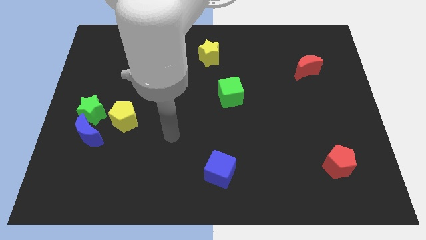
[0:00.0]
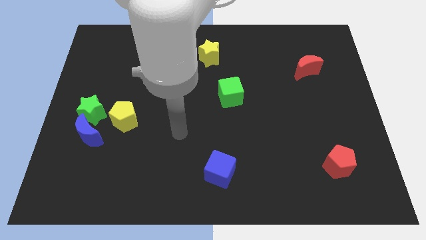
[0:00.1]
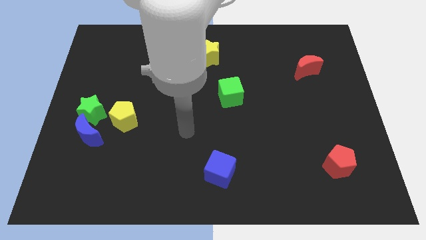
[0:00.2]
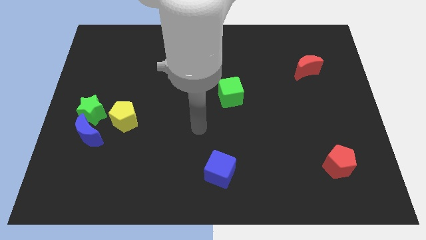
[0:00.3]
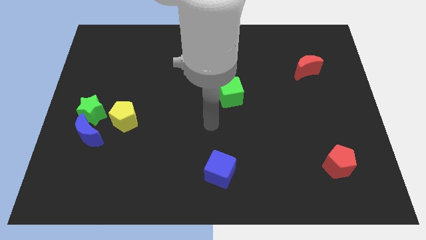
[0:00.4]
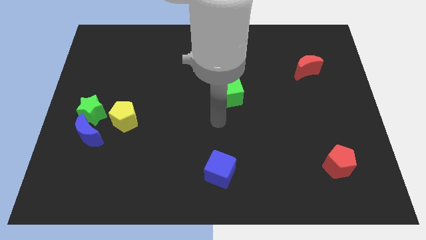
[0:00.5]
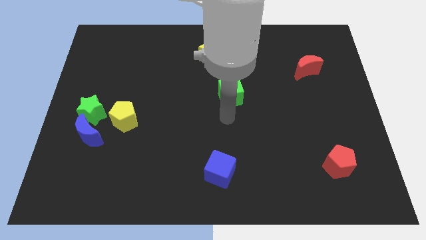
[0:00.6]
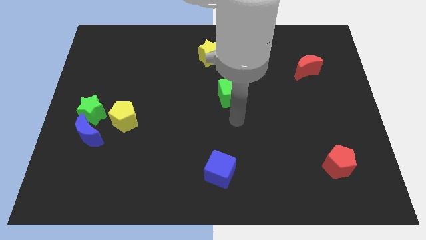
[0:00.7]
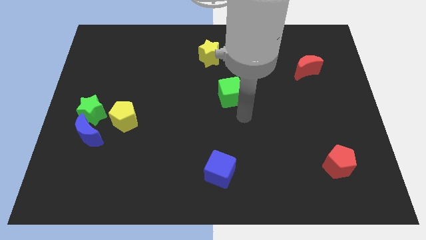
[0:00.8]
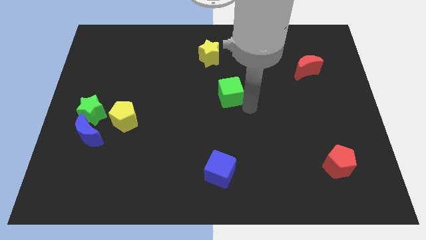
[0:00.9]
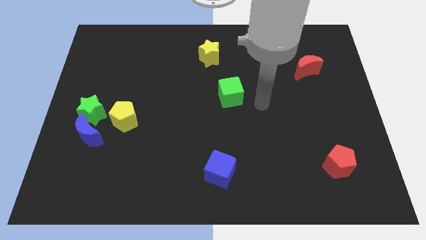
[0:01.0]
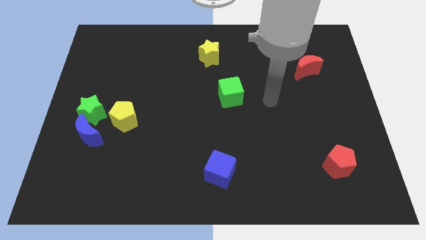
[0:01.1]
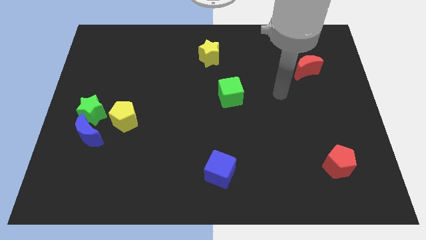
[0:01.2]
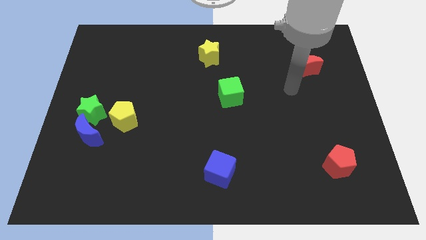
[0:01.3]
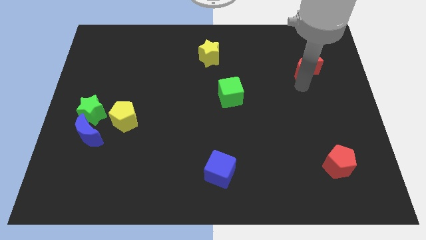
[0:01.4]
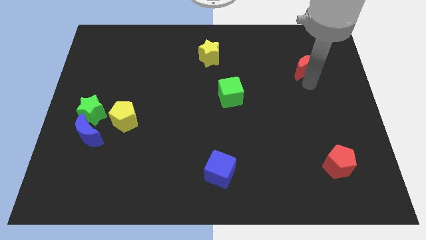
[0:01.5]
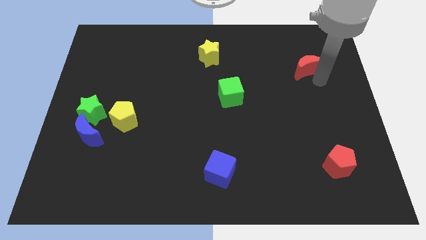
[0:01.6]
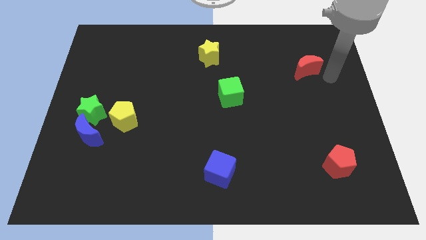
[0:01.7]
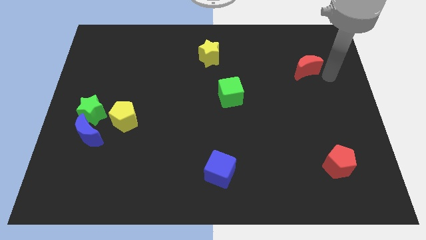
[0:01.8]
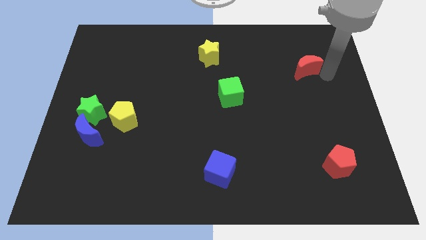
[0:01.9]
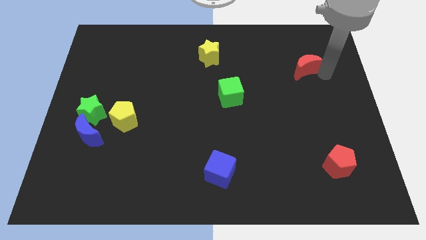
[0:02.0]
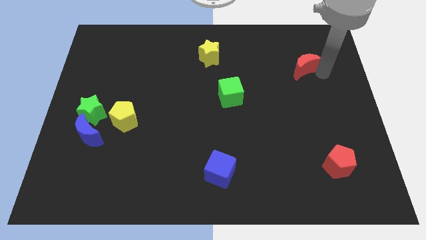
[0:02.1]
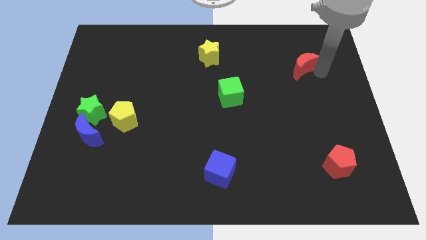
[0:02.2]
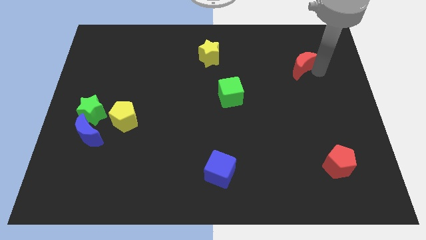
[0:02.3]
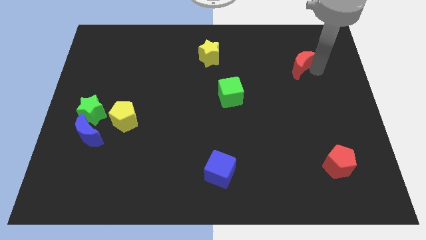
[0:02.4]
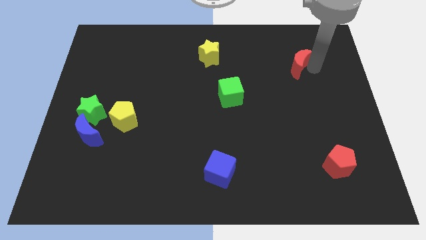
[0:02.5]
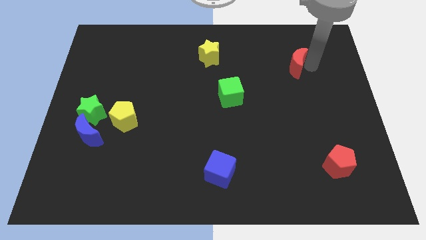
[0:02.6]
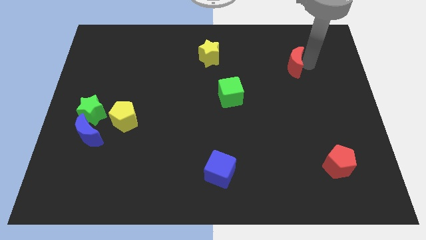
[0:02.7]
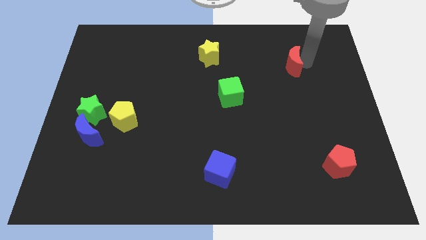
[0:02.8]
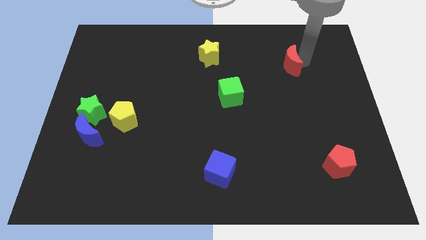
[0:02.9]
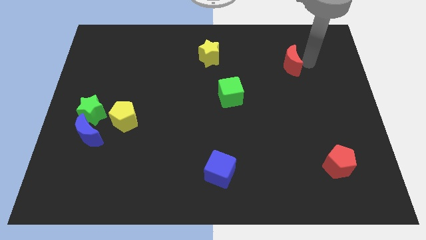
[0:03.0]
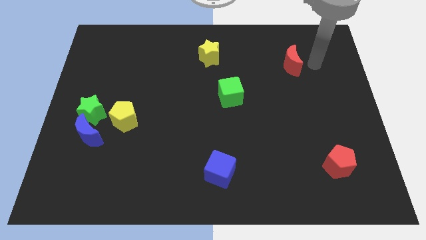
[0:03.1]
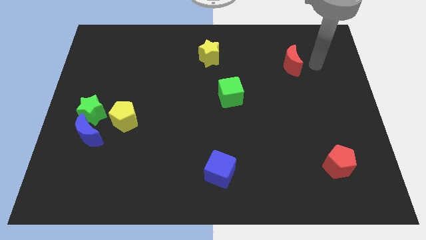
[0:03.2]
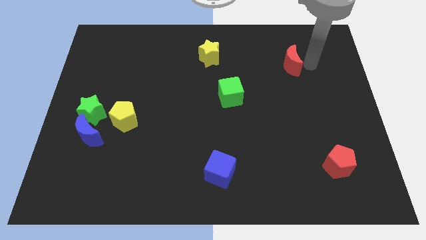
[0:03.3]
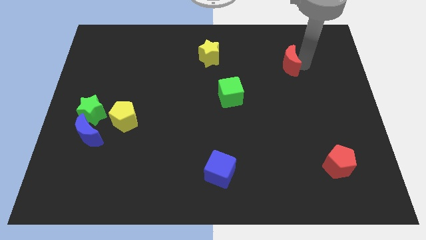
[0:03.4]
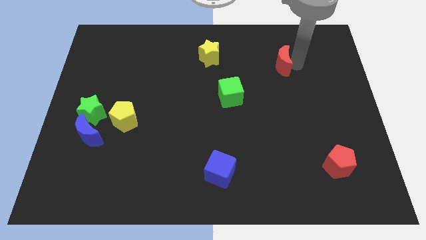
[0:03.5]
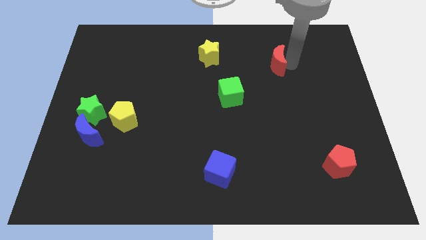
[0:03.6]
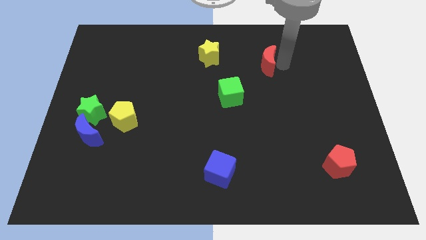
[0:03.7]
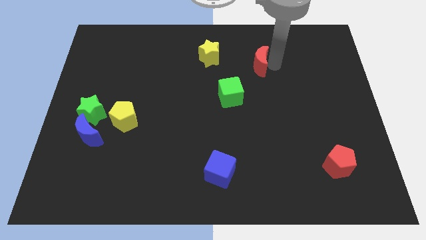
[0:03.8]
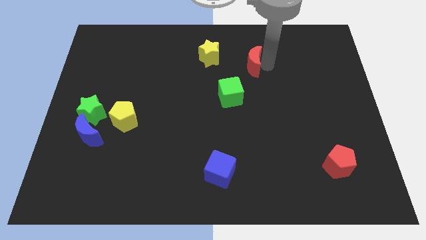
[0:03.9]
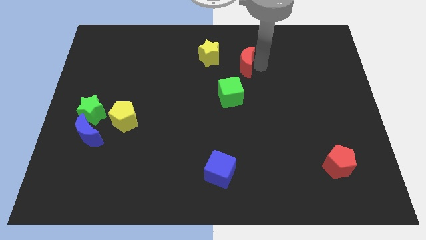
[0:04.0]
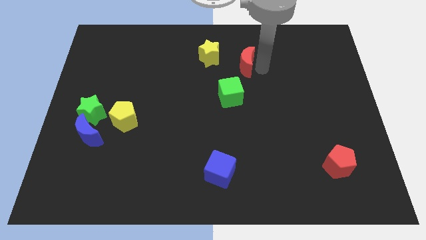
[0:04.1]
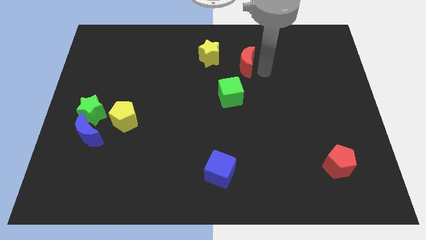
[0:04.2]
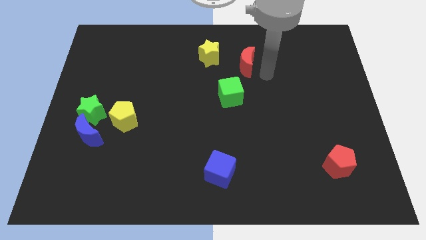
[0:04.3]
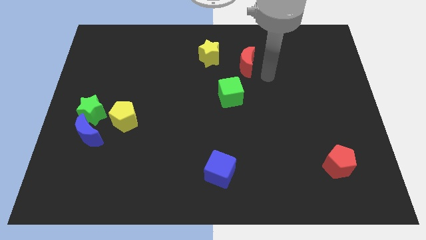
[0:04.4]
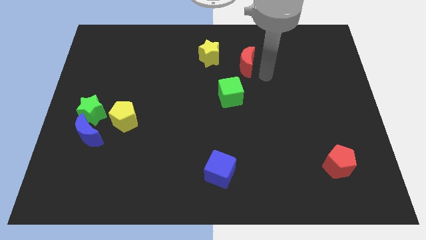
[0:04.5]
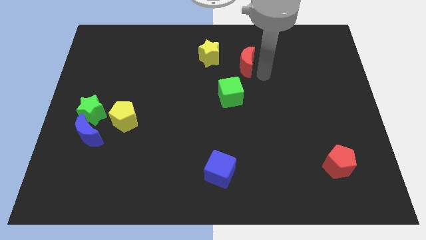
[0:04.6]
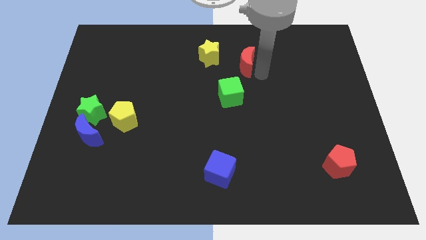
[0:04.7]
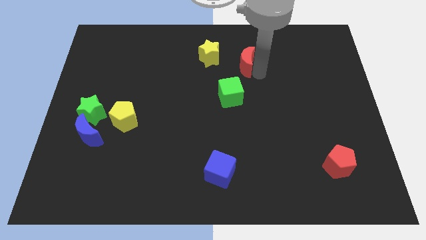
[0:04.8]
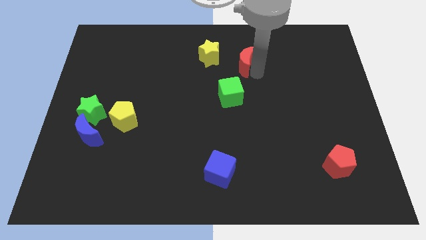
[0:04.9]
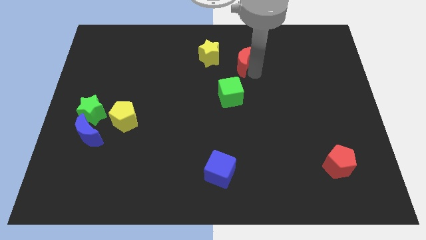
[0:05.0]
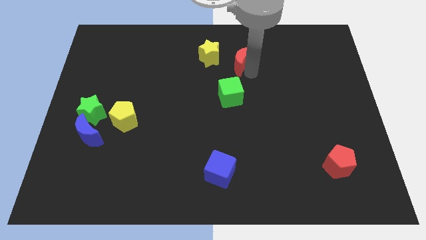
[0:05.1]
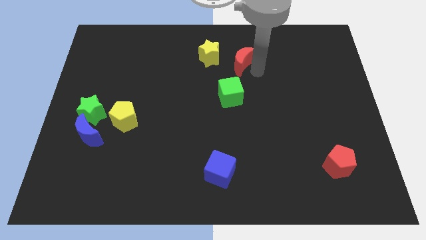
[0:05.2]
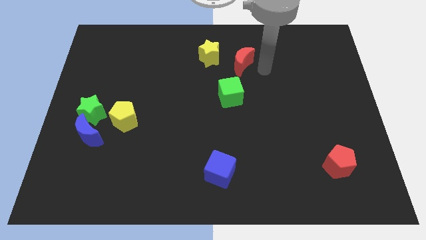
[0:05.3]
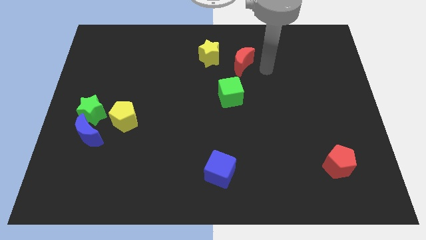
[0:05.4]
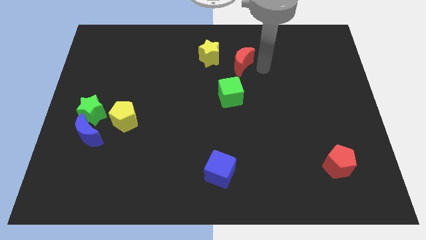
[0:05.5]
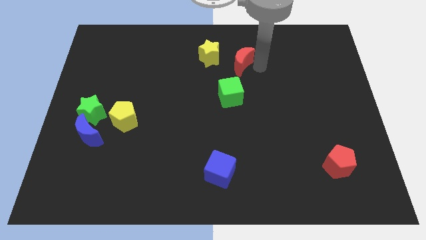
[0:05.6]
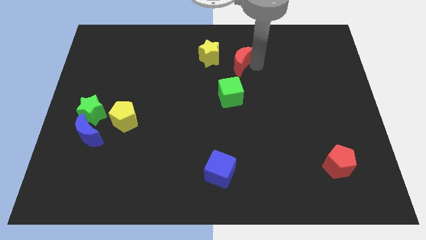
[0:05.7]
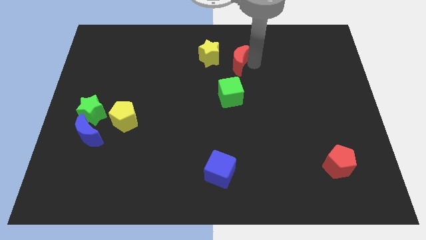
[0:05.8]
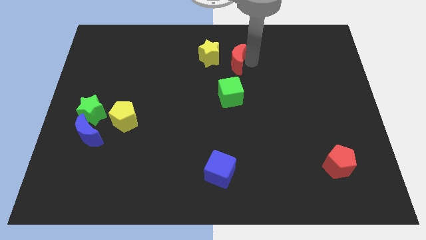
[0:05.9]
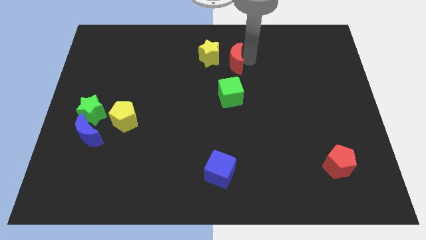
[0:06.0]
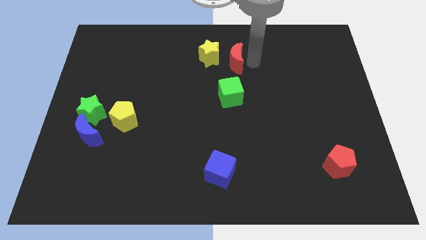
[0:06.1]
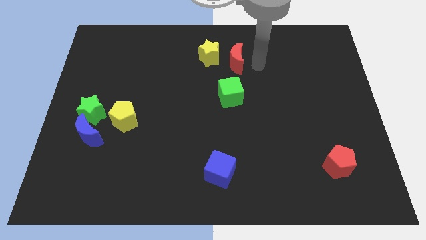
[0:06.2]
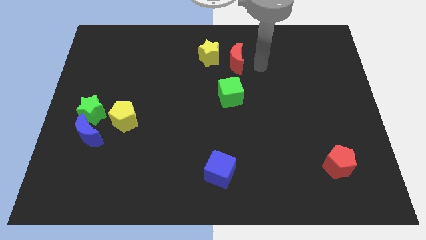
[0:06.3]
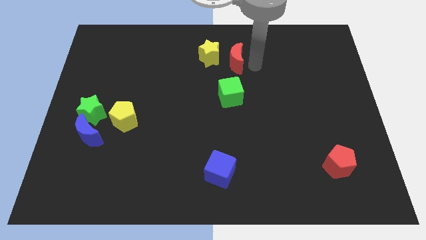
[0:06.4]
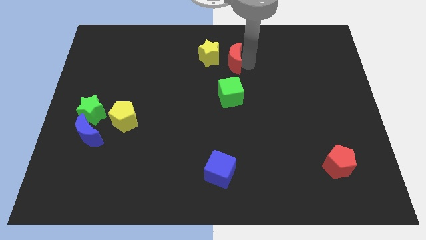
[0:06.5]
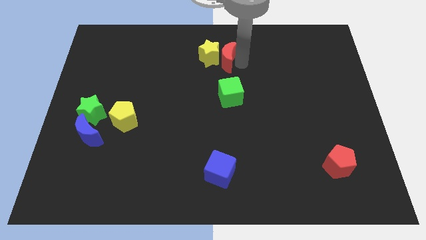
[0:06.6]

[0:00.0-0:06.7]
slide the red moon to the yellow star
